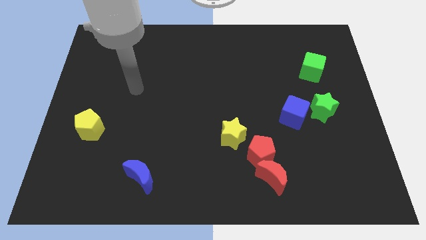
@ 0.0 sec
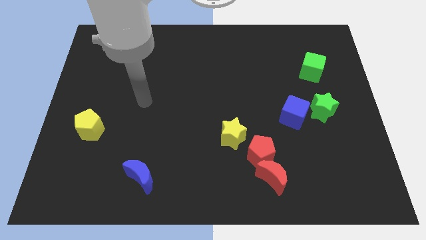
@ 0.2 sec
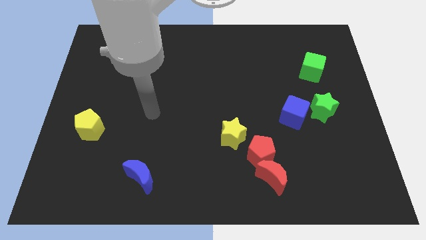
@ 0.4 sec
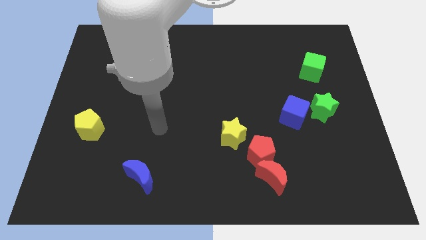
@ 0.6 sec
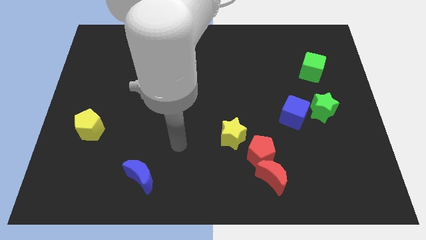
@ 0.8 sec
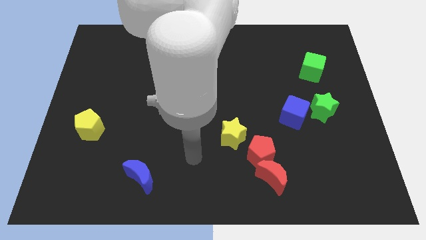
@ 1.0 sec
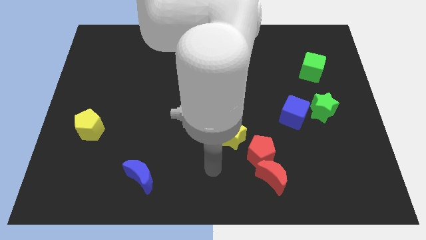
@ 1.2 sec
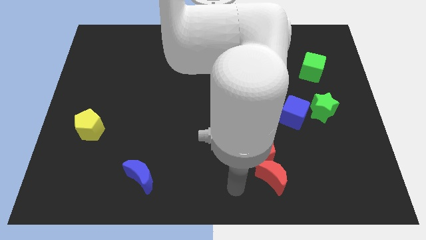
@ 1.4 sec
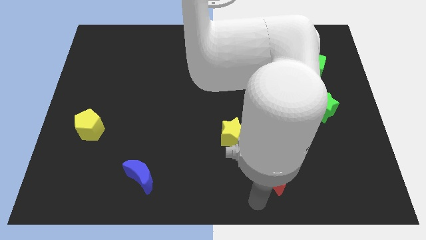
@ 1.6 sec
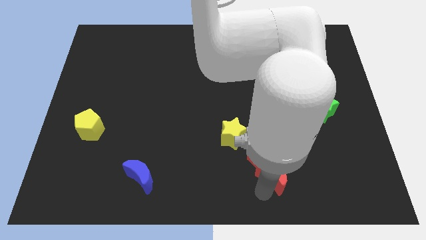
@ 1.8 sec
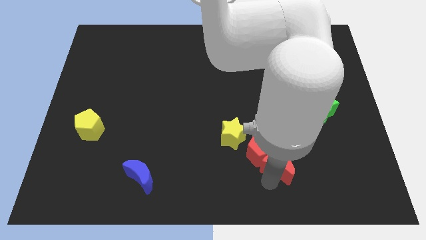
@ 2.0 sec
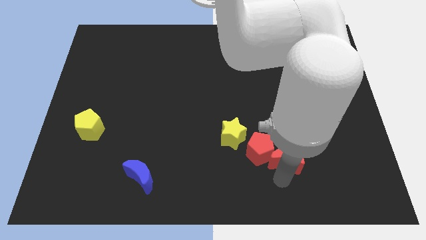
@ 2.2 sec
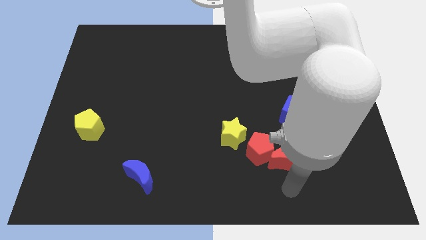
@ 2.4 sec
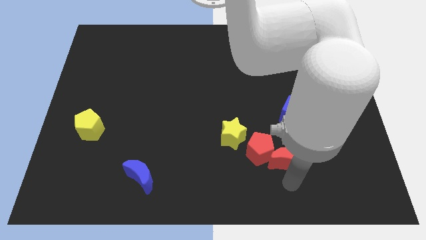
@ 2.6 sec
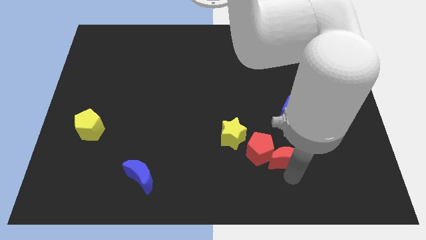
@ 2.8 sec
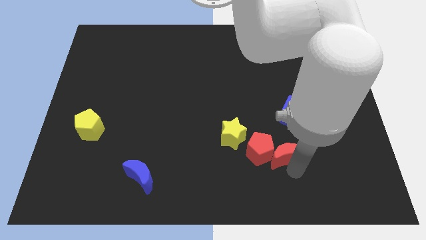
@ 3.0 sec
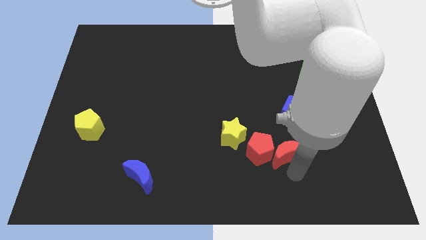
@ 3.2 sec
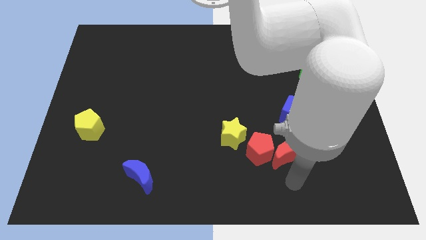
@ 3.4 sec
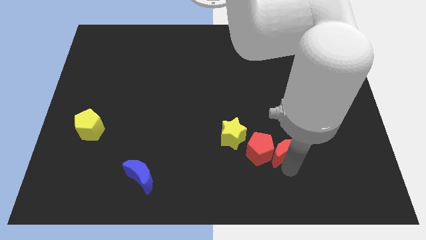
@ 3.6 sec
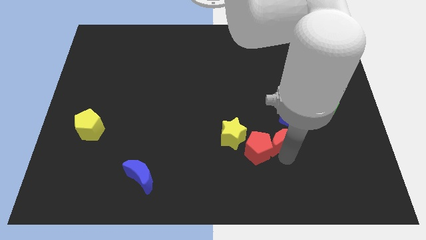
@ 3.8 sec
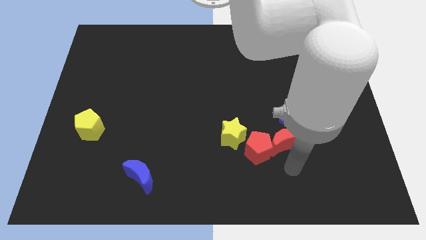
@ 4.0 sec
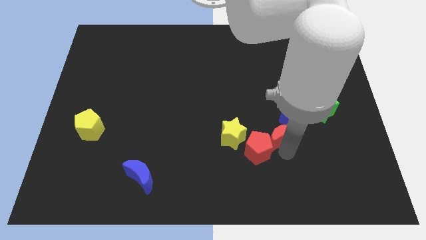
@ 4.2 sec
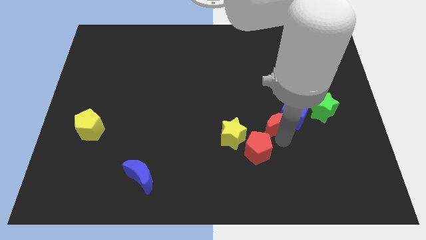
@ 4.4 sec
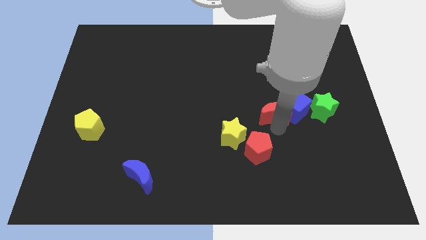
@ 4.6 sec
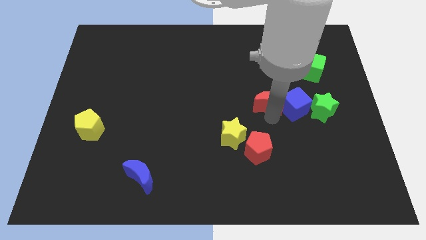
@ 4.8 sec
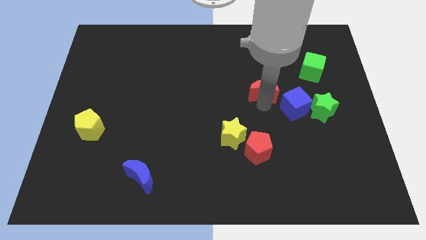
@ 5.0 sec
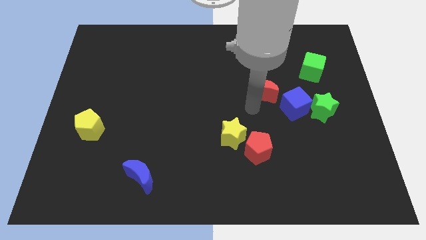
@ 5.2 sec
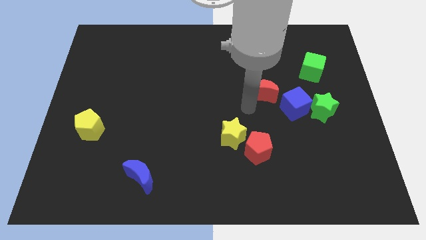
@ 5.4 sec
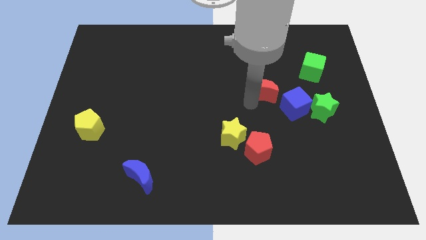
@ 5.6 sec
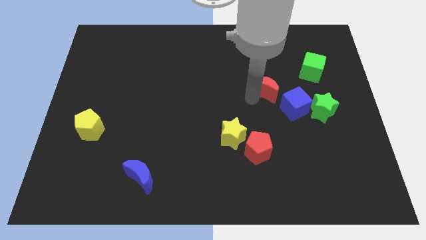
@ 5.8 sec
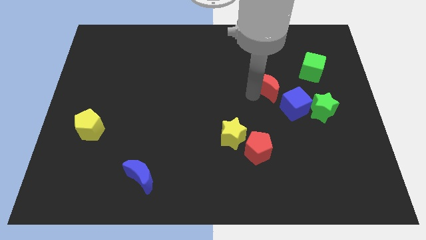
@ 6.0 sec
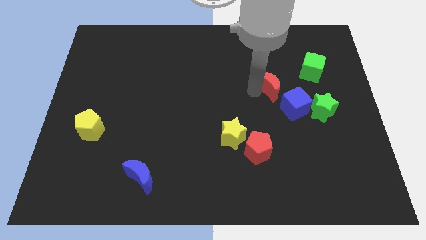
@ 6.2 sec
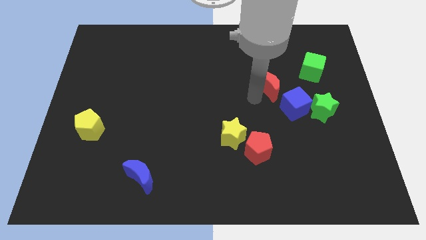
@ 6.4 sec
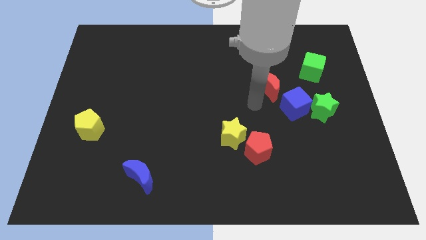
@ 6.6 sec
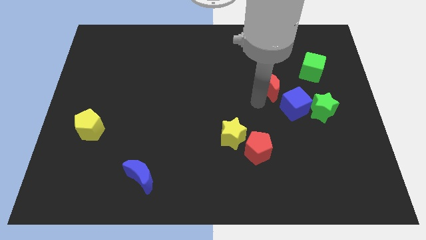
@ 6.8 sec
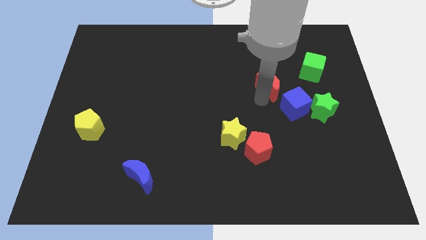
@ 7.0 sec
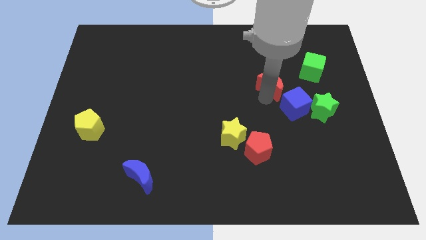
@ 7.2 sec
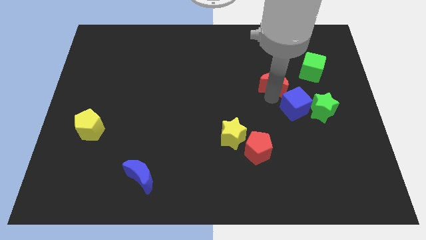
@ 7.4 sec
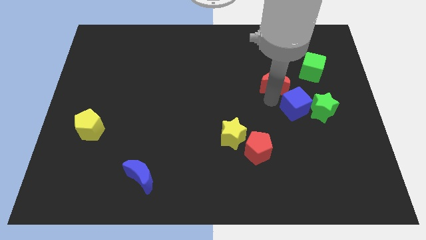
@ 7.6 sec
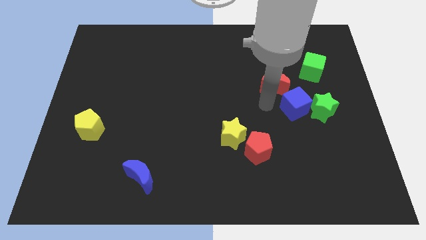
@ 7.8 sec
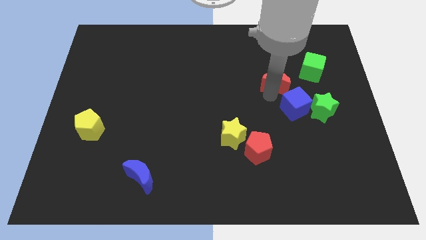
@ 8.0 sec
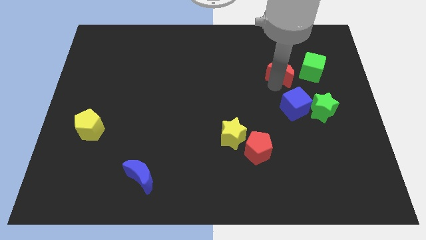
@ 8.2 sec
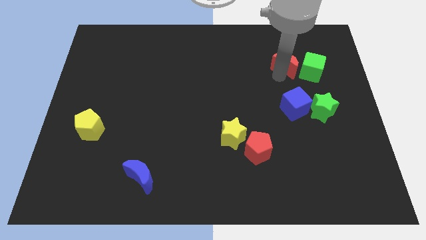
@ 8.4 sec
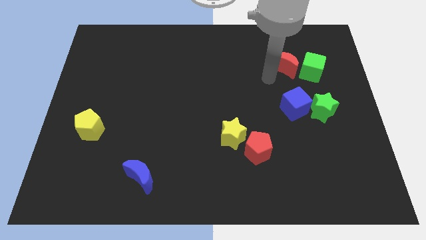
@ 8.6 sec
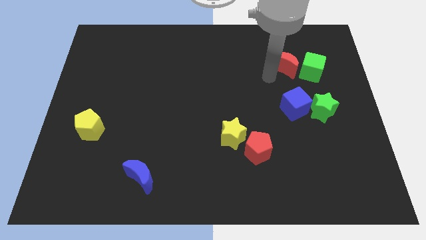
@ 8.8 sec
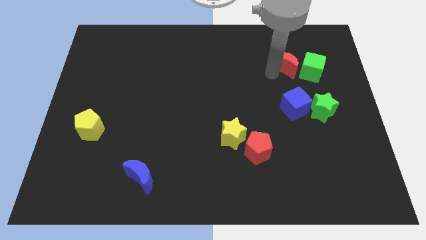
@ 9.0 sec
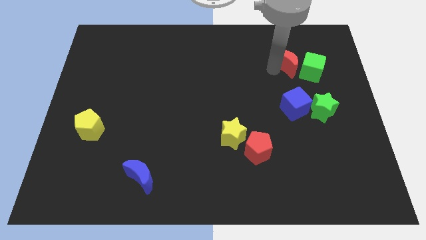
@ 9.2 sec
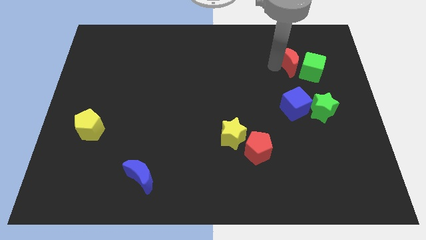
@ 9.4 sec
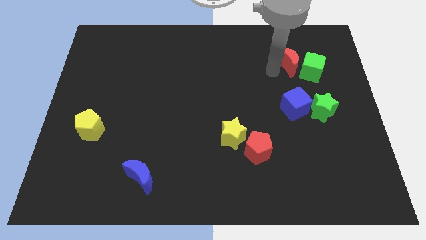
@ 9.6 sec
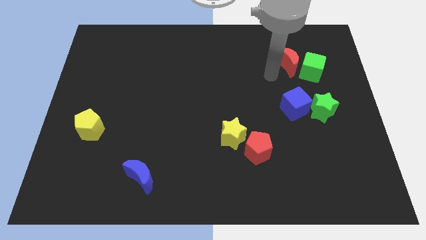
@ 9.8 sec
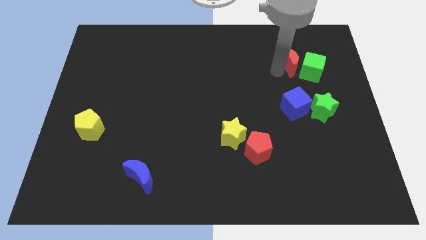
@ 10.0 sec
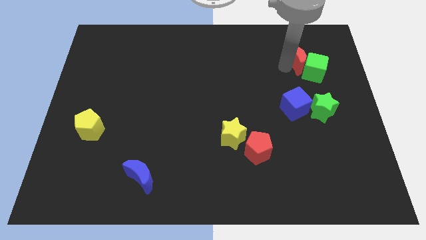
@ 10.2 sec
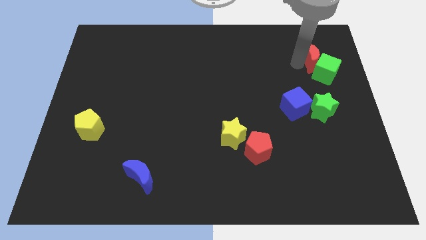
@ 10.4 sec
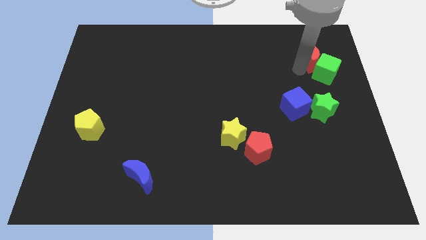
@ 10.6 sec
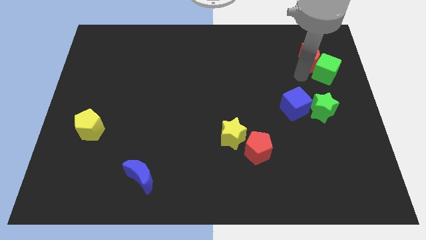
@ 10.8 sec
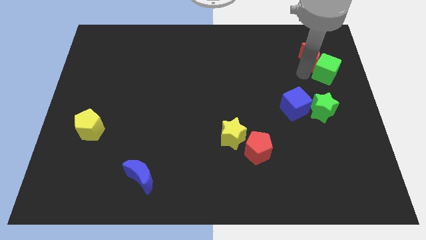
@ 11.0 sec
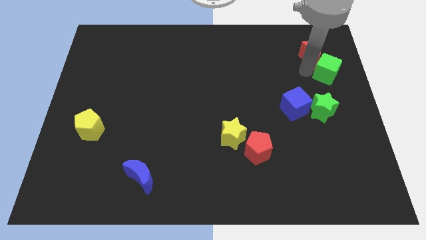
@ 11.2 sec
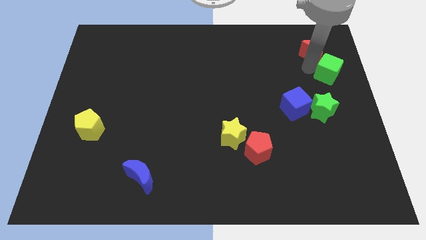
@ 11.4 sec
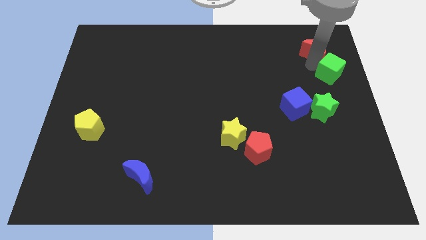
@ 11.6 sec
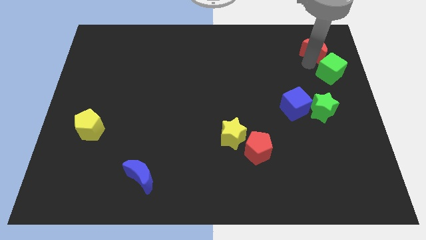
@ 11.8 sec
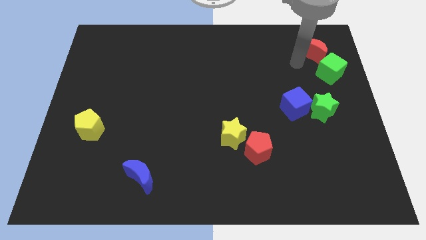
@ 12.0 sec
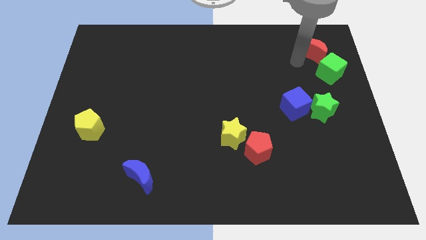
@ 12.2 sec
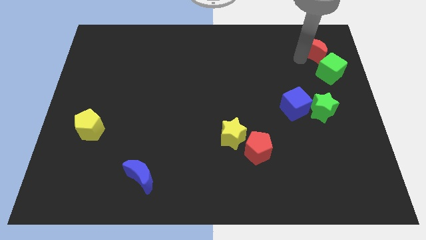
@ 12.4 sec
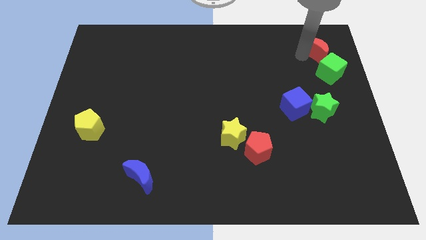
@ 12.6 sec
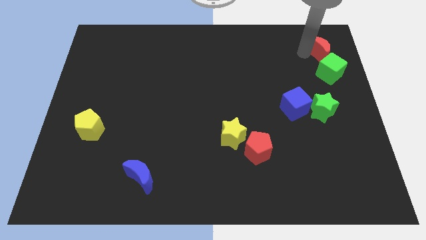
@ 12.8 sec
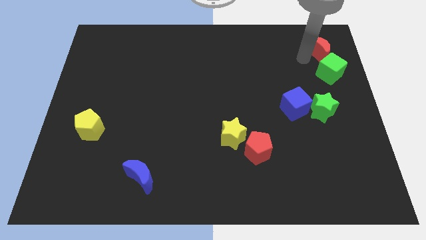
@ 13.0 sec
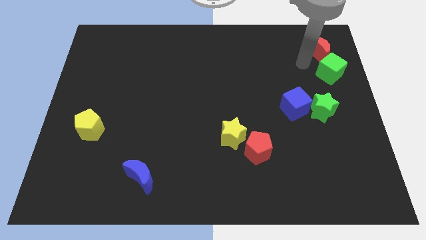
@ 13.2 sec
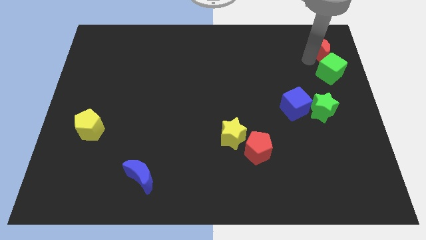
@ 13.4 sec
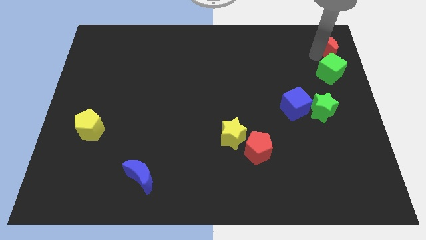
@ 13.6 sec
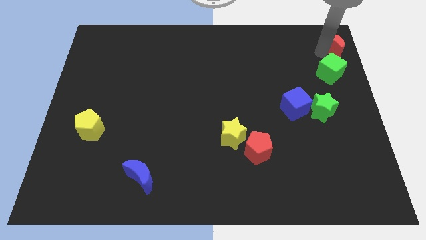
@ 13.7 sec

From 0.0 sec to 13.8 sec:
slide the red moon to the top right
